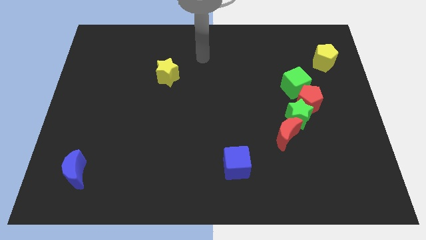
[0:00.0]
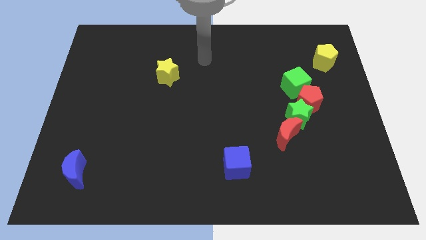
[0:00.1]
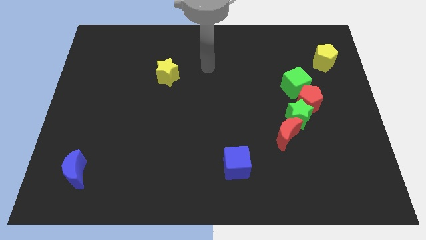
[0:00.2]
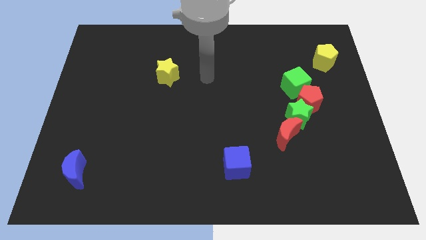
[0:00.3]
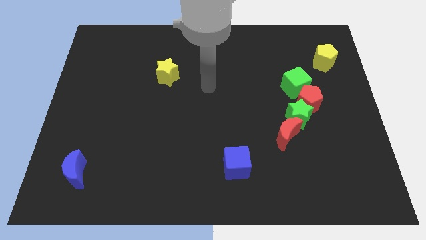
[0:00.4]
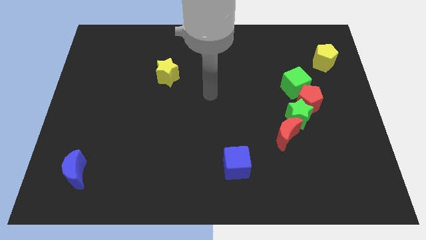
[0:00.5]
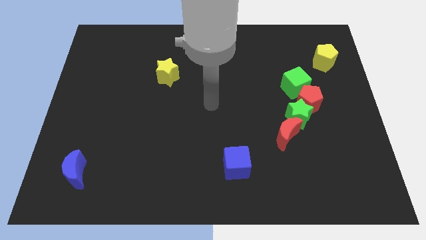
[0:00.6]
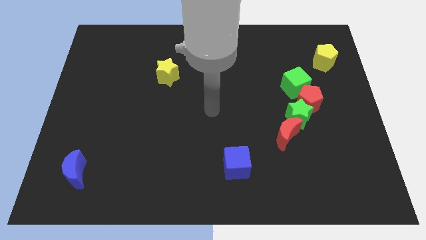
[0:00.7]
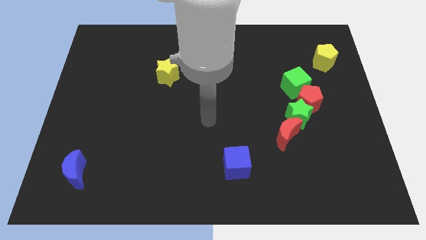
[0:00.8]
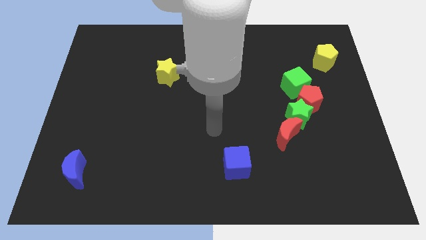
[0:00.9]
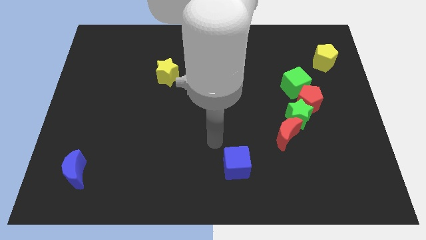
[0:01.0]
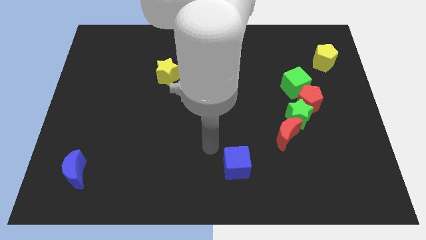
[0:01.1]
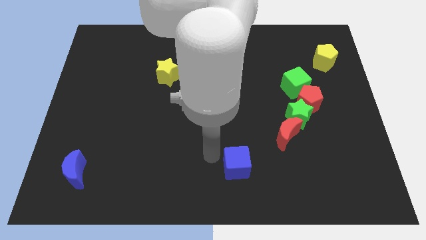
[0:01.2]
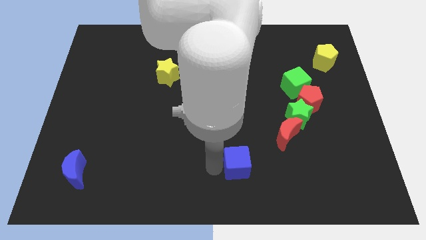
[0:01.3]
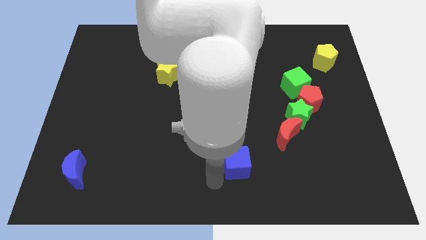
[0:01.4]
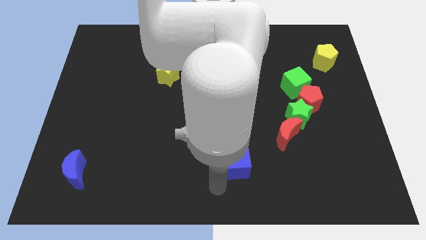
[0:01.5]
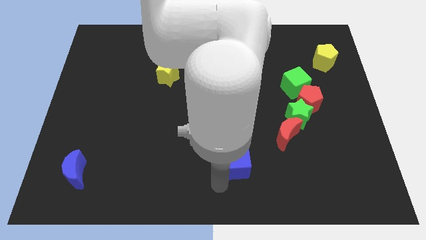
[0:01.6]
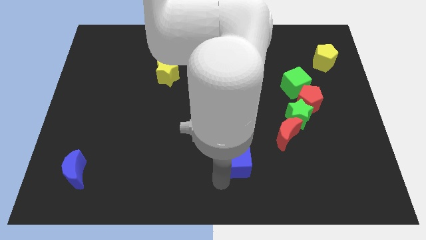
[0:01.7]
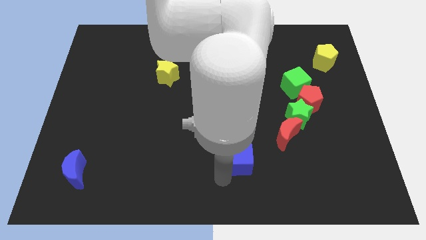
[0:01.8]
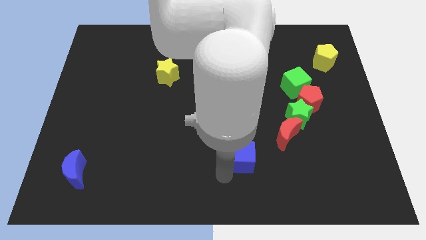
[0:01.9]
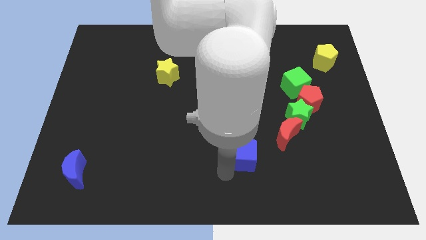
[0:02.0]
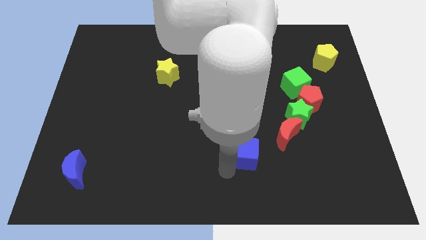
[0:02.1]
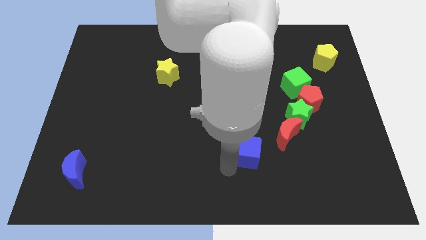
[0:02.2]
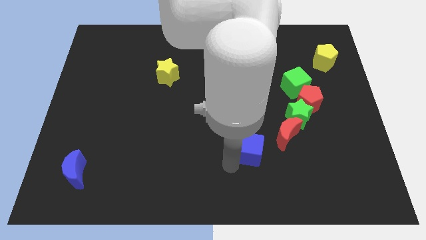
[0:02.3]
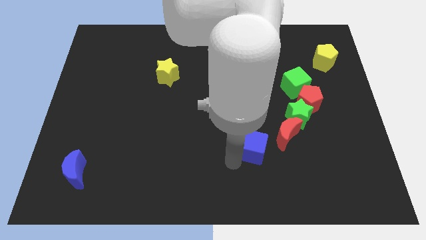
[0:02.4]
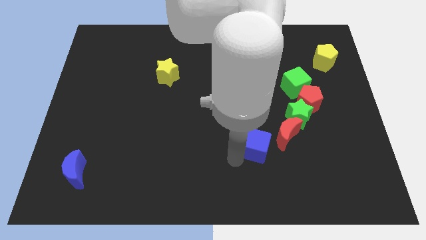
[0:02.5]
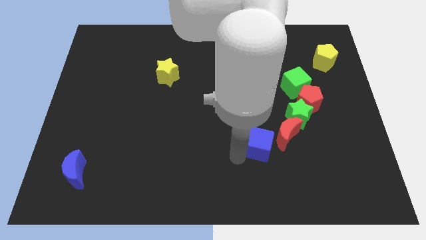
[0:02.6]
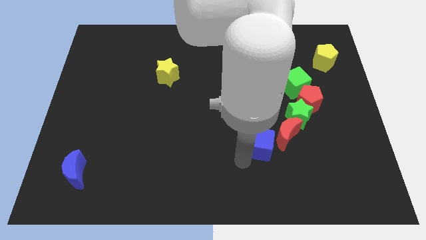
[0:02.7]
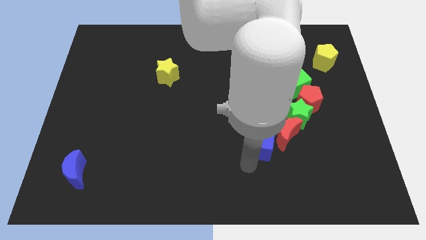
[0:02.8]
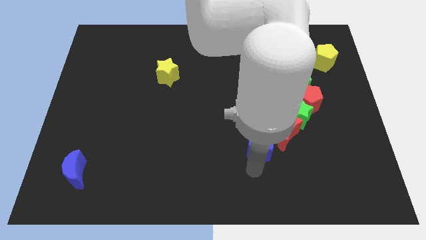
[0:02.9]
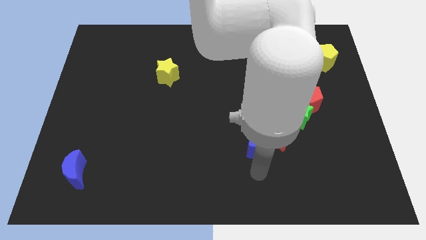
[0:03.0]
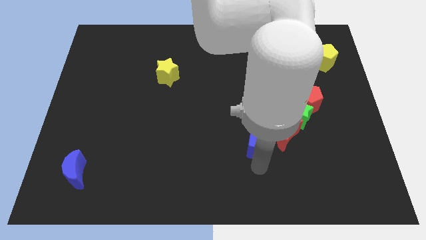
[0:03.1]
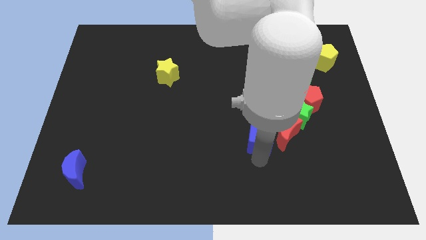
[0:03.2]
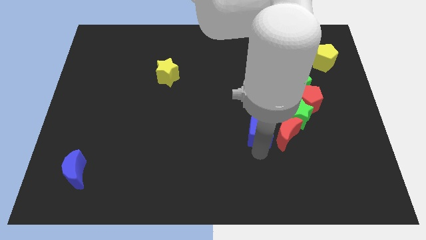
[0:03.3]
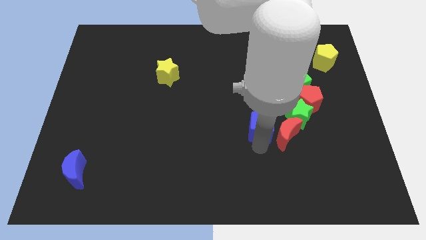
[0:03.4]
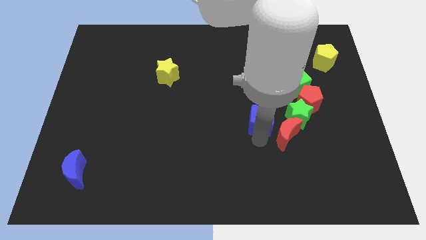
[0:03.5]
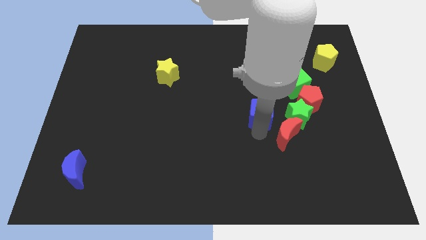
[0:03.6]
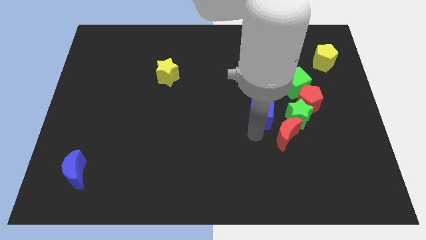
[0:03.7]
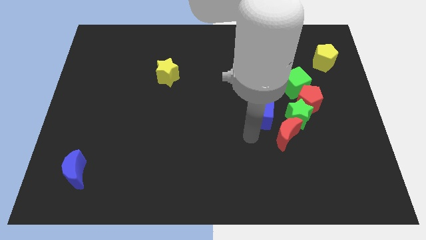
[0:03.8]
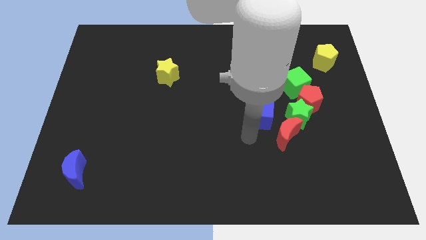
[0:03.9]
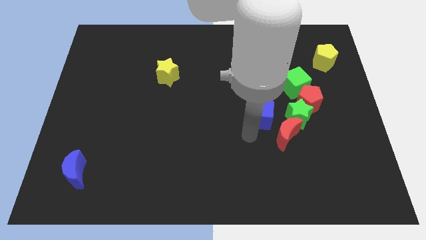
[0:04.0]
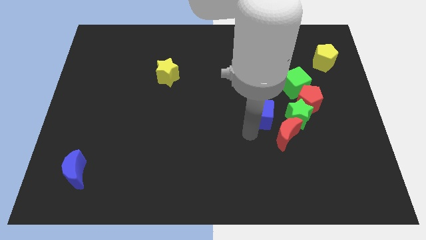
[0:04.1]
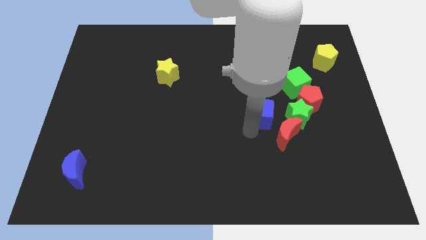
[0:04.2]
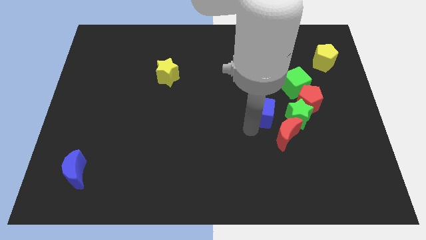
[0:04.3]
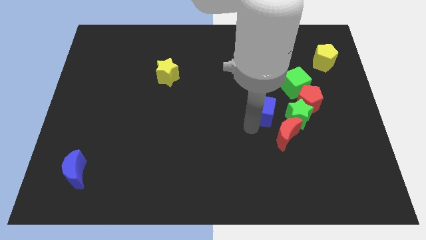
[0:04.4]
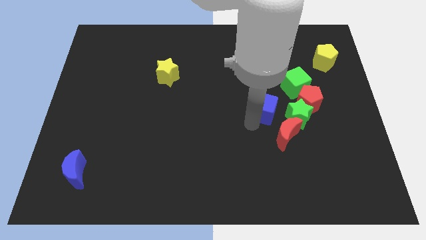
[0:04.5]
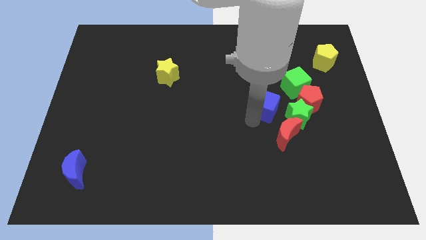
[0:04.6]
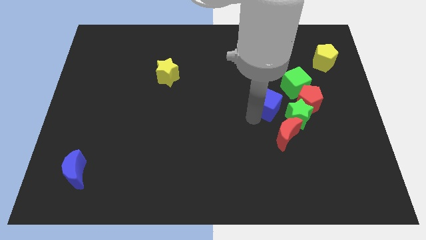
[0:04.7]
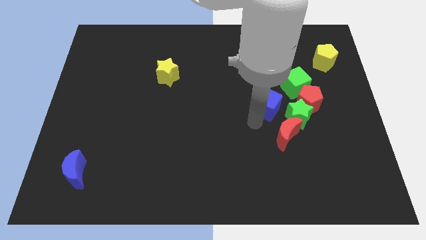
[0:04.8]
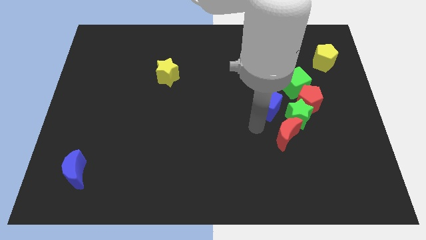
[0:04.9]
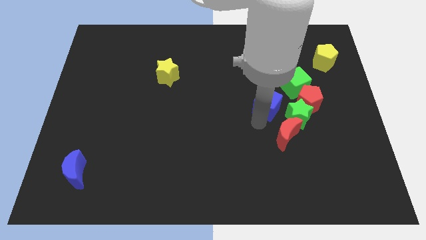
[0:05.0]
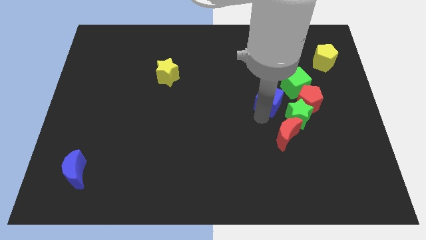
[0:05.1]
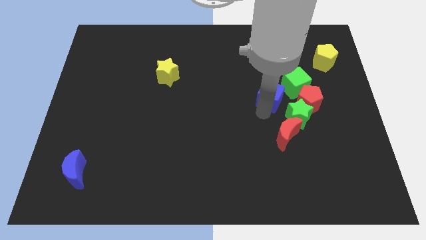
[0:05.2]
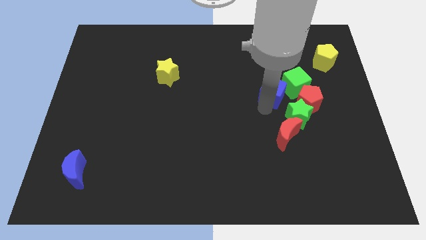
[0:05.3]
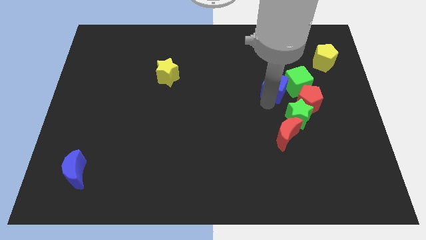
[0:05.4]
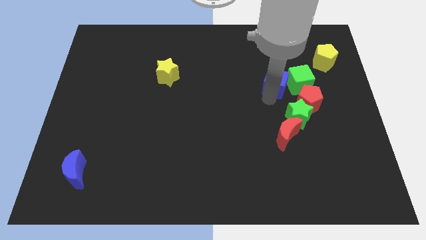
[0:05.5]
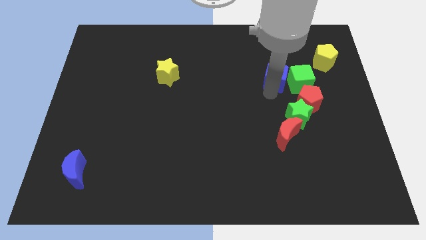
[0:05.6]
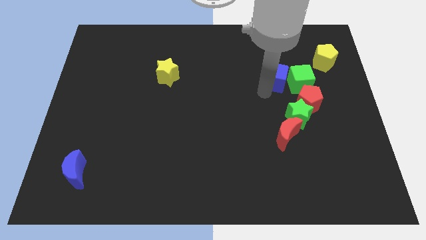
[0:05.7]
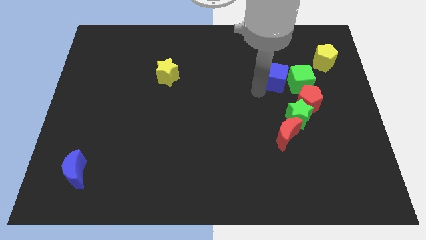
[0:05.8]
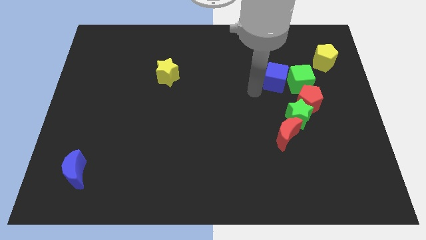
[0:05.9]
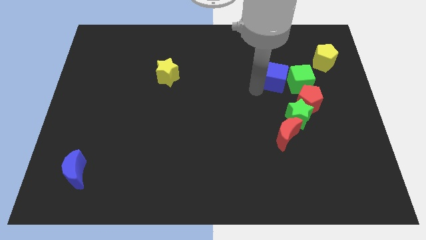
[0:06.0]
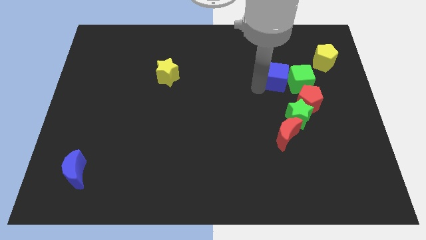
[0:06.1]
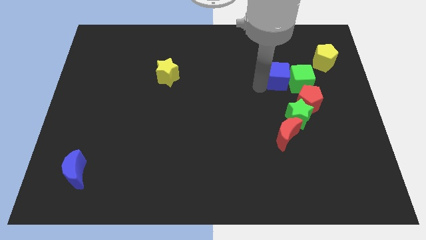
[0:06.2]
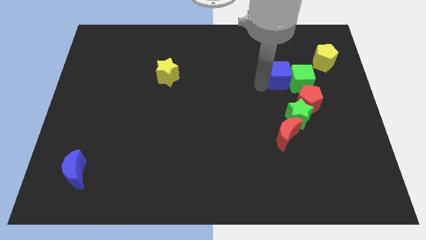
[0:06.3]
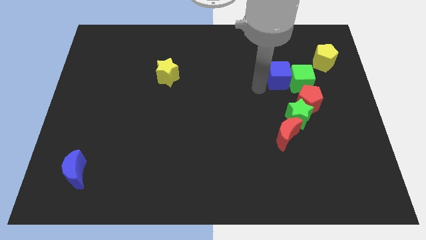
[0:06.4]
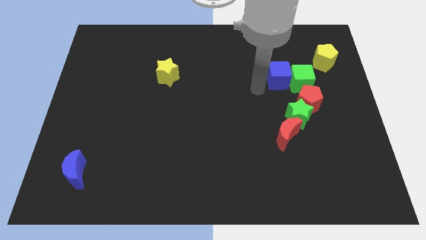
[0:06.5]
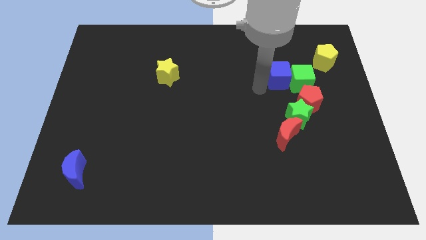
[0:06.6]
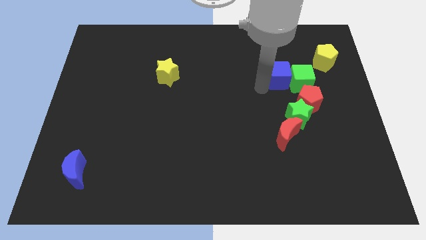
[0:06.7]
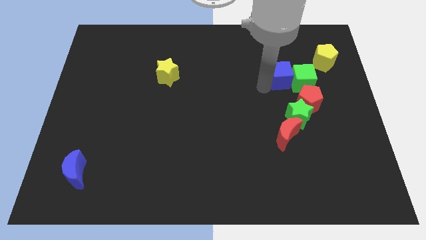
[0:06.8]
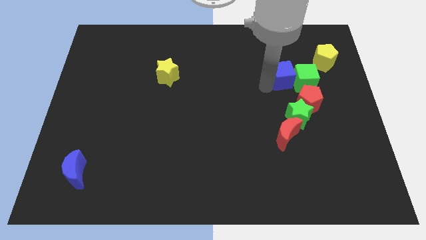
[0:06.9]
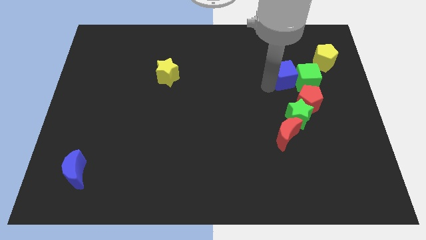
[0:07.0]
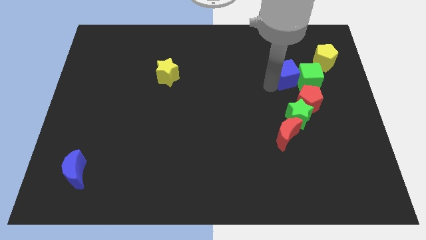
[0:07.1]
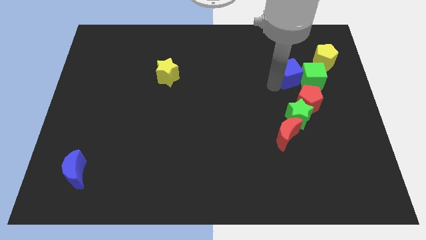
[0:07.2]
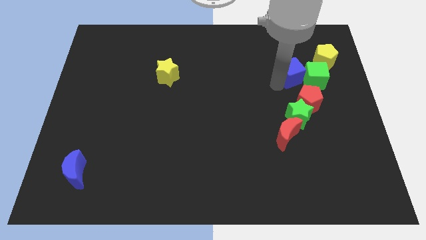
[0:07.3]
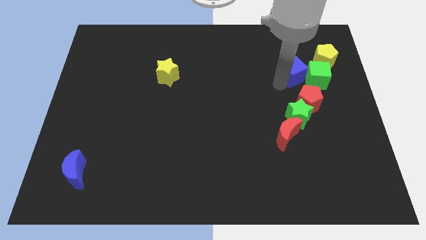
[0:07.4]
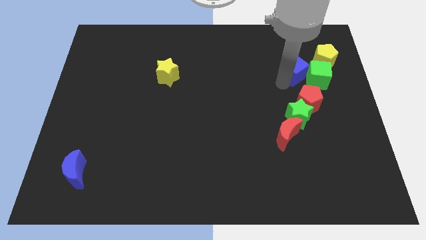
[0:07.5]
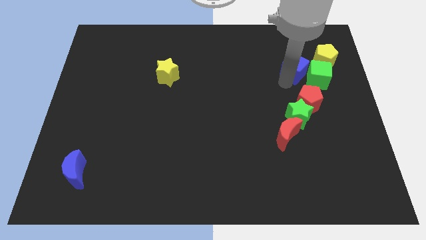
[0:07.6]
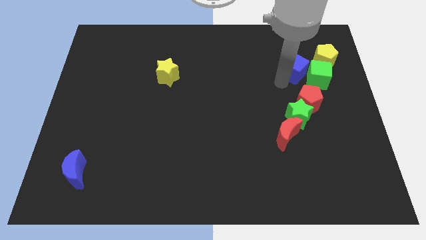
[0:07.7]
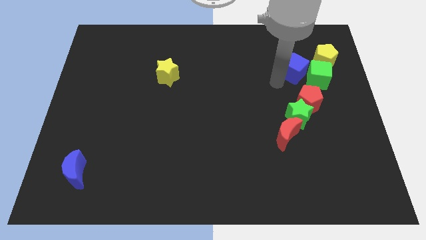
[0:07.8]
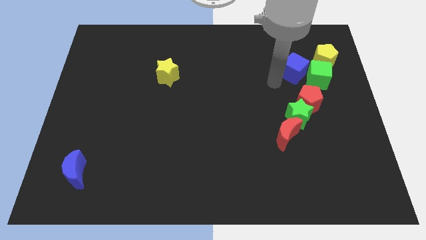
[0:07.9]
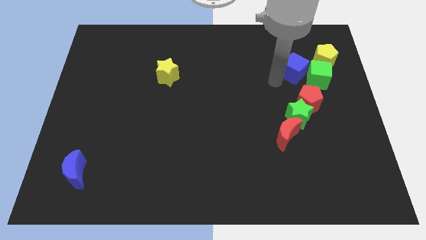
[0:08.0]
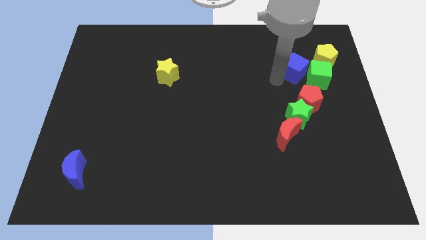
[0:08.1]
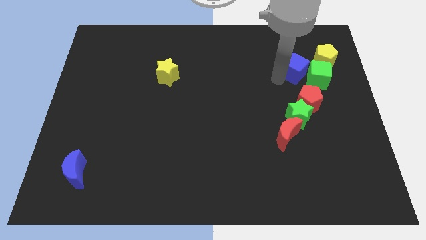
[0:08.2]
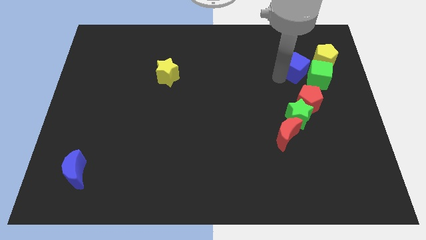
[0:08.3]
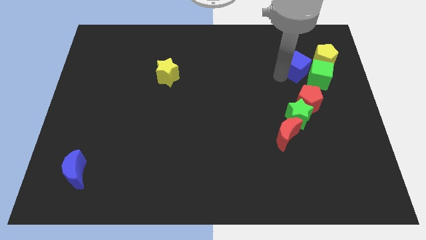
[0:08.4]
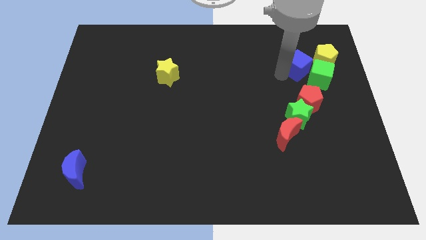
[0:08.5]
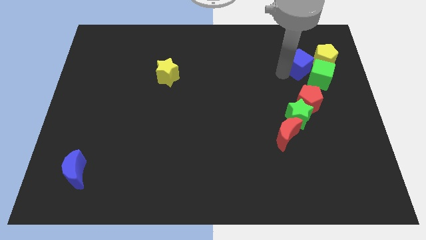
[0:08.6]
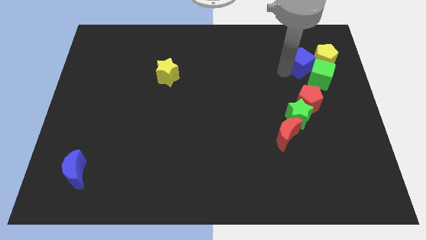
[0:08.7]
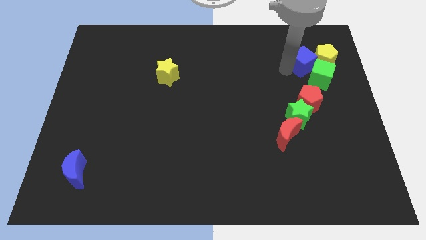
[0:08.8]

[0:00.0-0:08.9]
move the blue cube to the yellow pentagon
